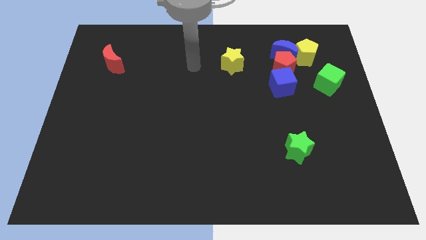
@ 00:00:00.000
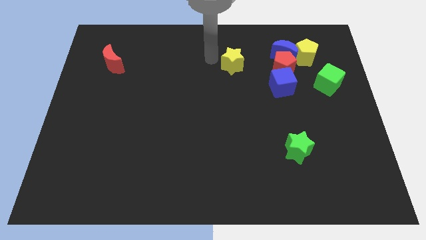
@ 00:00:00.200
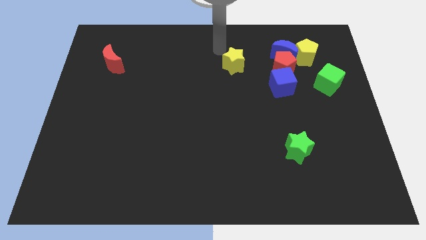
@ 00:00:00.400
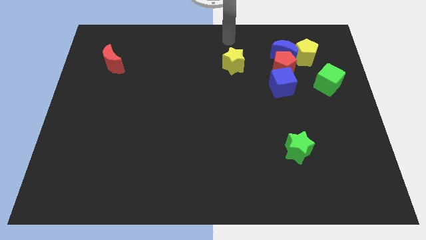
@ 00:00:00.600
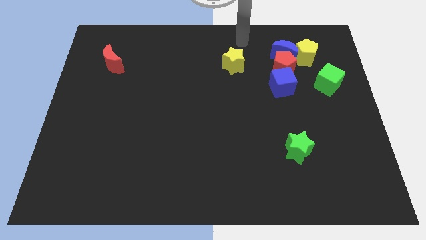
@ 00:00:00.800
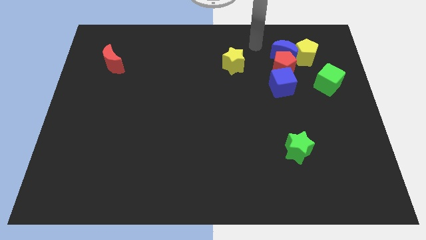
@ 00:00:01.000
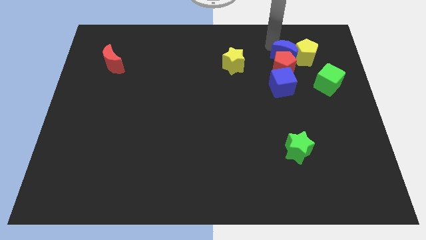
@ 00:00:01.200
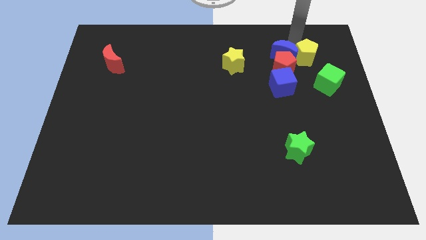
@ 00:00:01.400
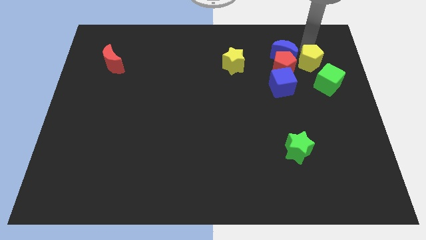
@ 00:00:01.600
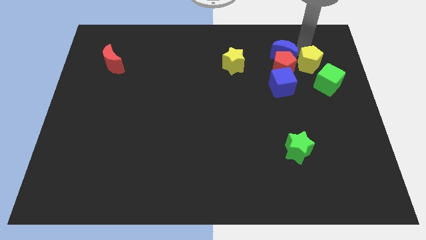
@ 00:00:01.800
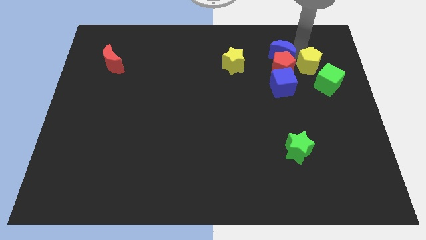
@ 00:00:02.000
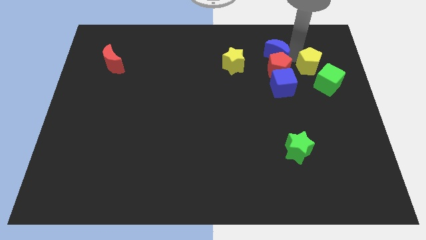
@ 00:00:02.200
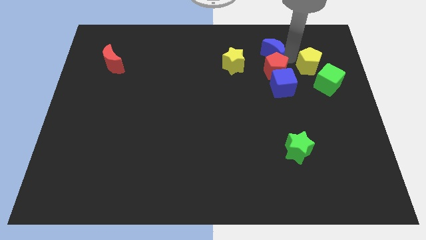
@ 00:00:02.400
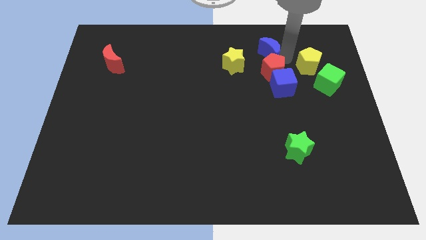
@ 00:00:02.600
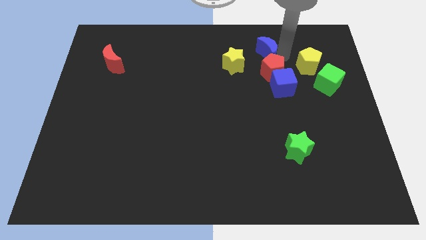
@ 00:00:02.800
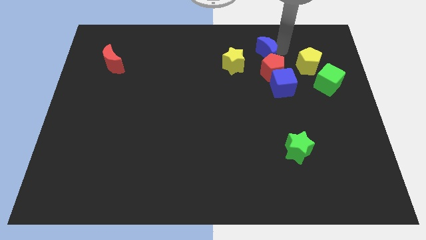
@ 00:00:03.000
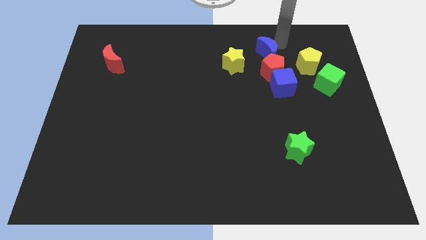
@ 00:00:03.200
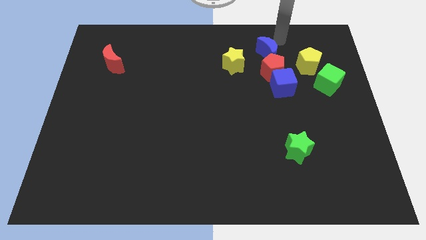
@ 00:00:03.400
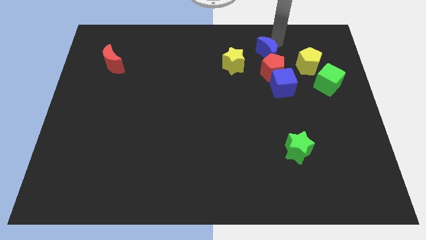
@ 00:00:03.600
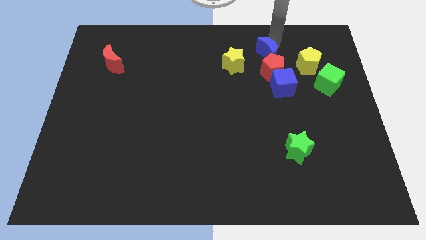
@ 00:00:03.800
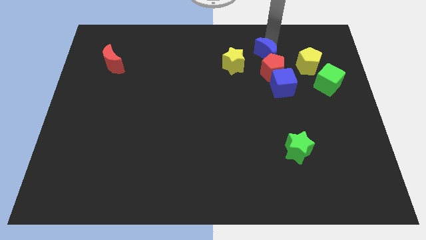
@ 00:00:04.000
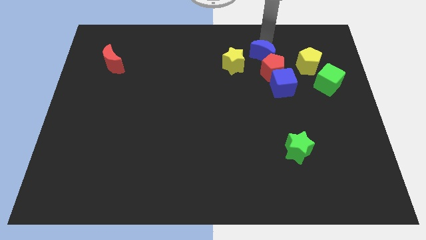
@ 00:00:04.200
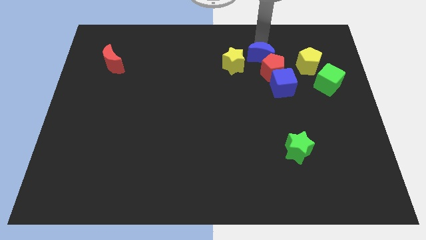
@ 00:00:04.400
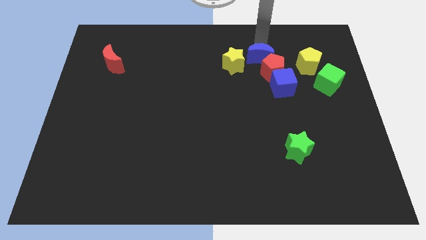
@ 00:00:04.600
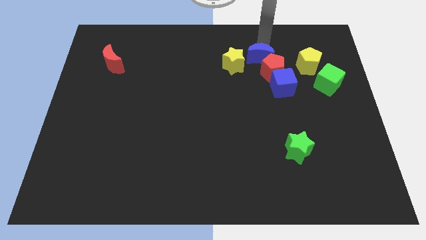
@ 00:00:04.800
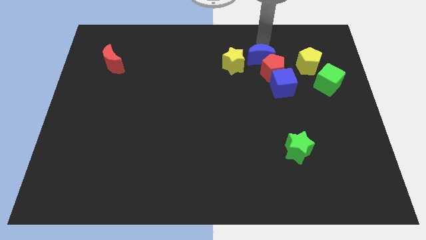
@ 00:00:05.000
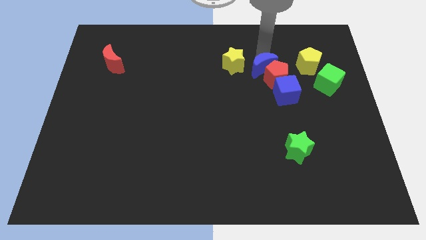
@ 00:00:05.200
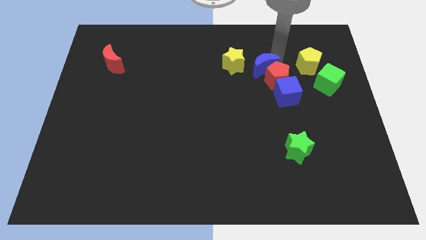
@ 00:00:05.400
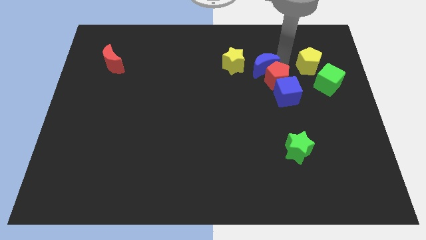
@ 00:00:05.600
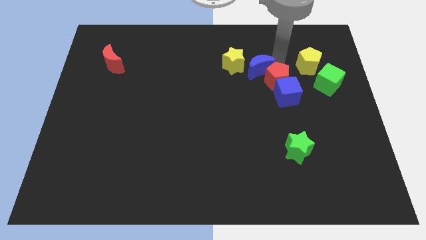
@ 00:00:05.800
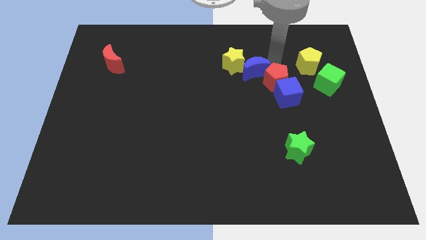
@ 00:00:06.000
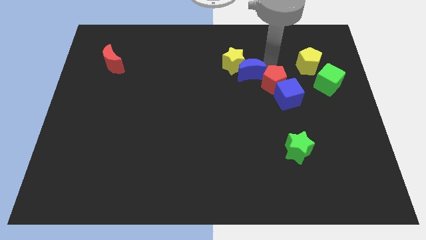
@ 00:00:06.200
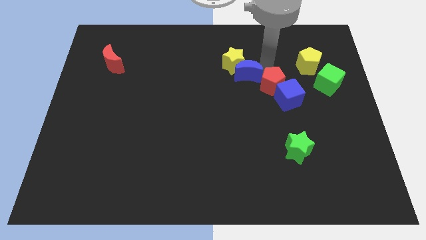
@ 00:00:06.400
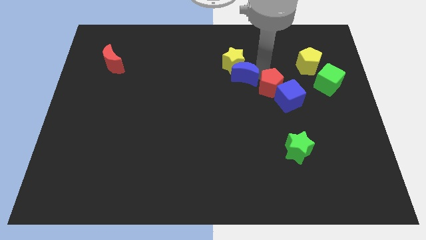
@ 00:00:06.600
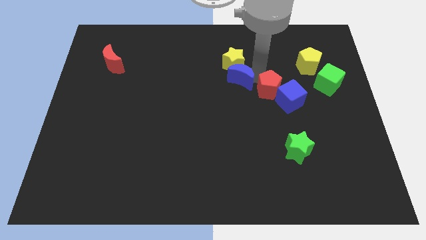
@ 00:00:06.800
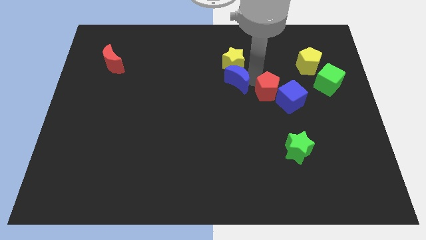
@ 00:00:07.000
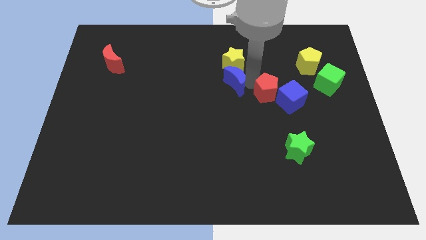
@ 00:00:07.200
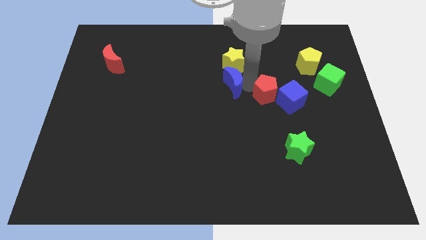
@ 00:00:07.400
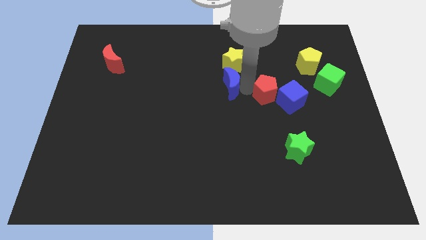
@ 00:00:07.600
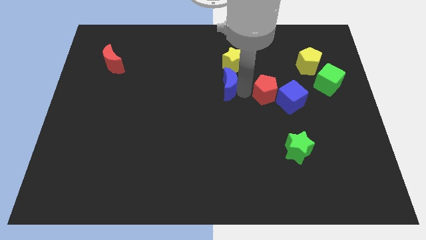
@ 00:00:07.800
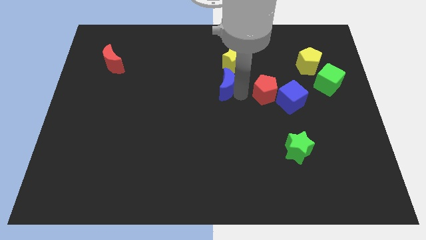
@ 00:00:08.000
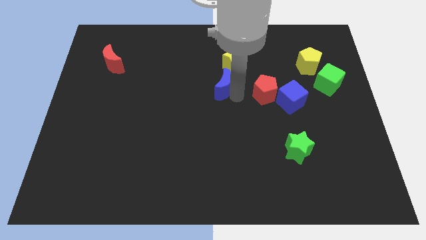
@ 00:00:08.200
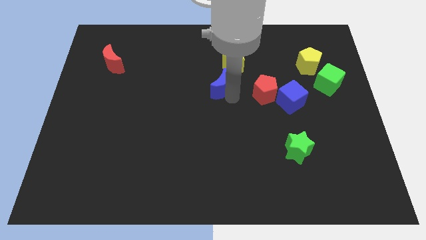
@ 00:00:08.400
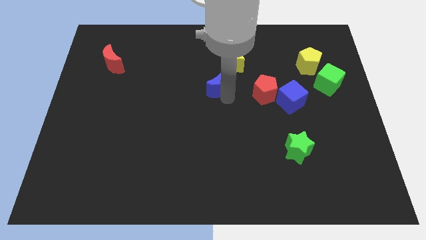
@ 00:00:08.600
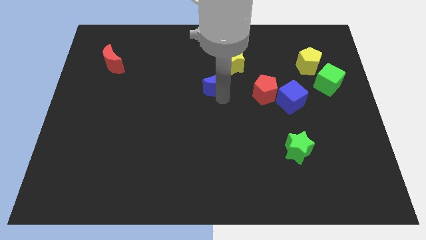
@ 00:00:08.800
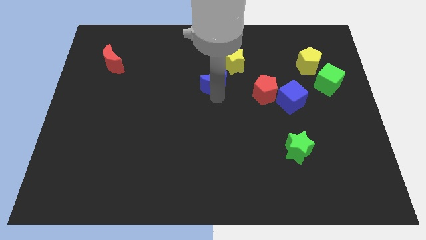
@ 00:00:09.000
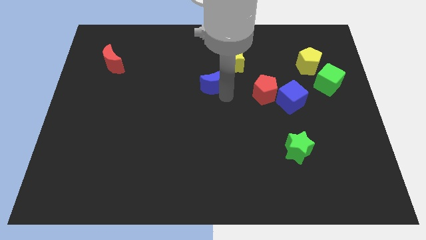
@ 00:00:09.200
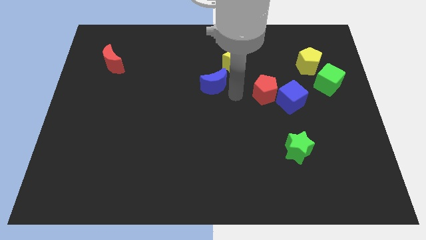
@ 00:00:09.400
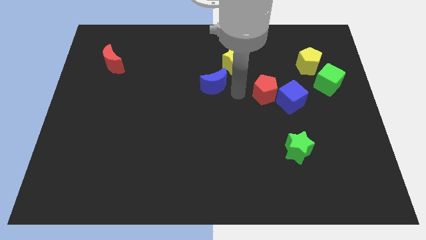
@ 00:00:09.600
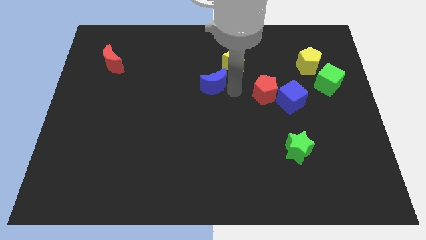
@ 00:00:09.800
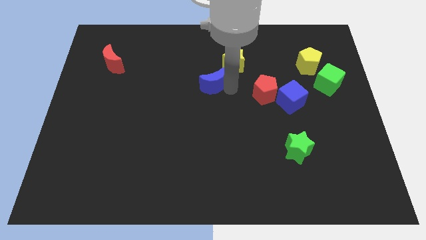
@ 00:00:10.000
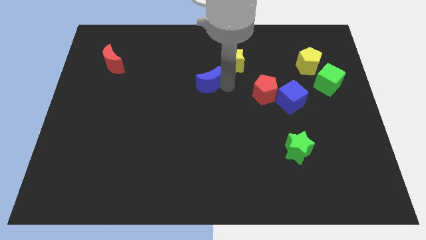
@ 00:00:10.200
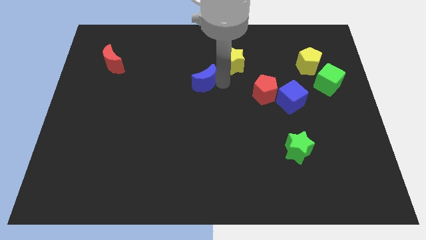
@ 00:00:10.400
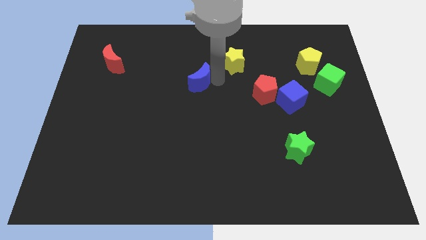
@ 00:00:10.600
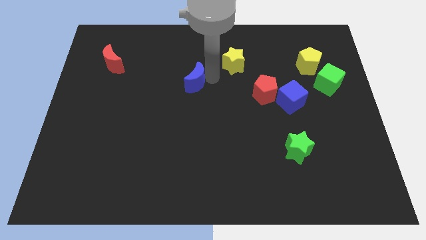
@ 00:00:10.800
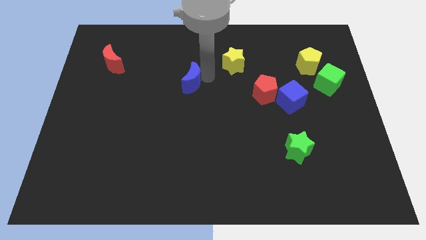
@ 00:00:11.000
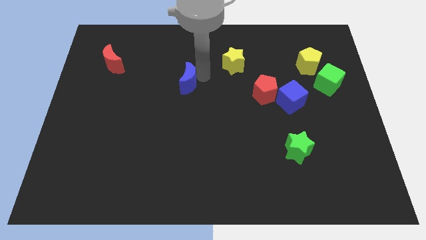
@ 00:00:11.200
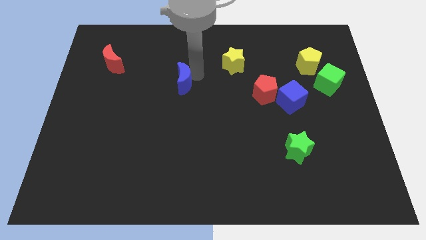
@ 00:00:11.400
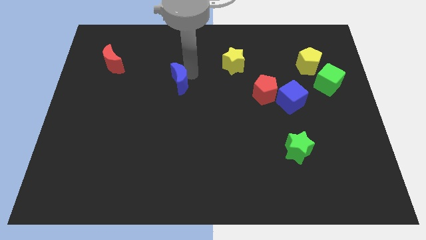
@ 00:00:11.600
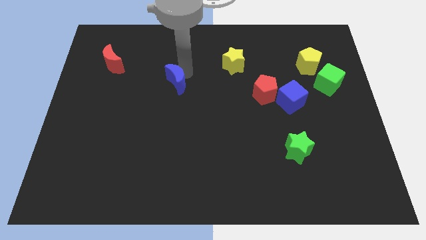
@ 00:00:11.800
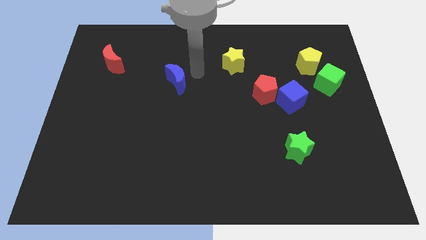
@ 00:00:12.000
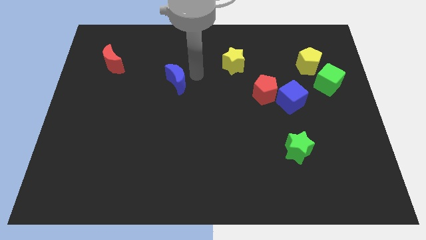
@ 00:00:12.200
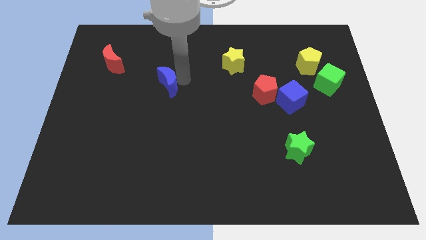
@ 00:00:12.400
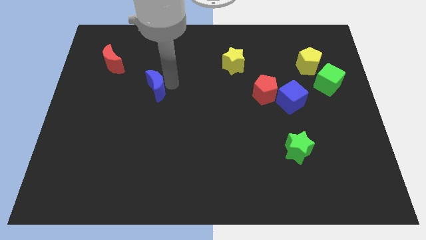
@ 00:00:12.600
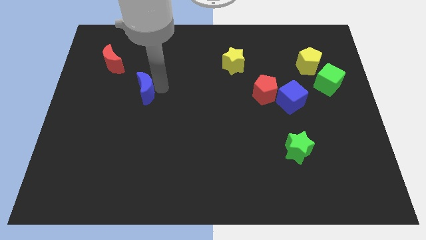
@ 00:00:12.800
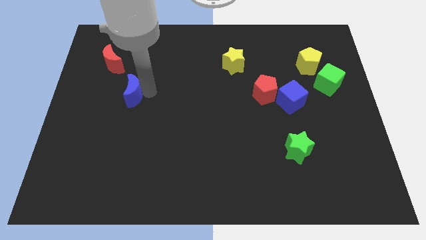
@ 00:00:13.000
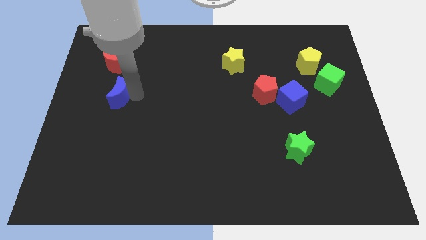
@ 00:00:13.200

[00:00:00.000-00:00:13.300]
slide the blue moon below the red moon

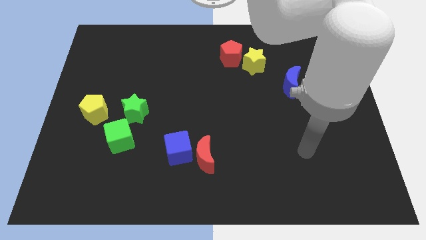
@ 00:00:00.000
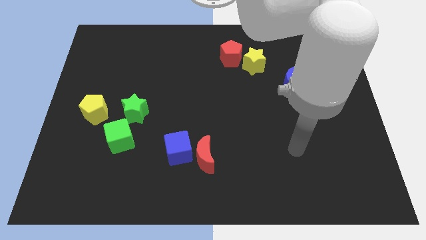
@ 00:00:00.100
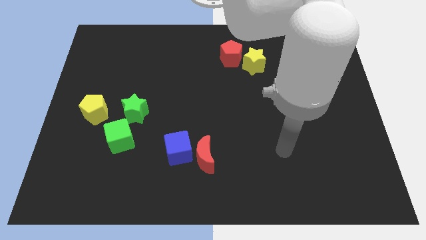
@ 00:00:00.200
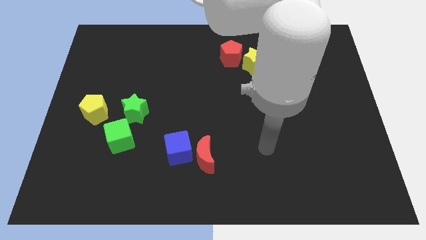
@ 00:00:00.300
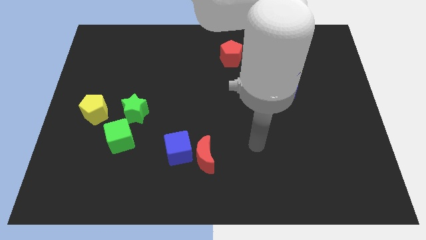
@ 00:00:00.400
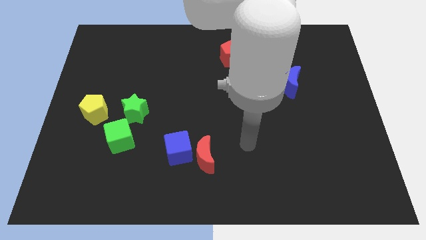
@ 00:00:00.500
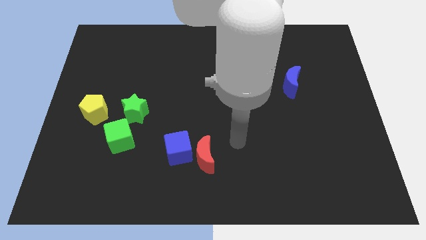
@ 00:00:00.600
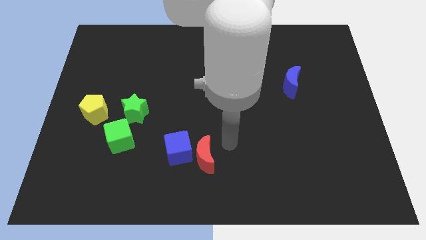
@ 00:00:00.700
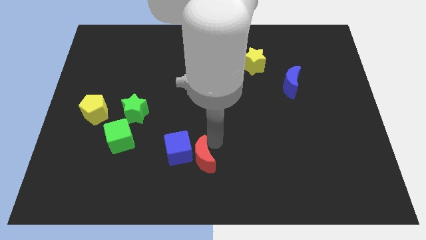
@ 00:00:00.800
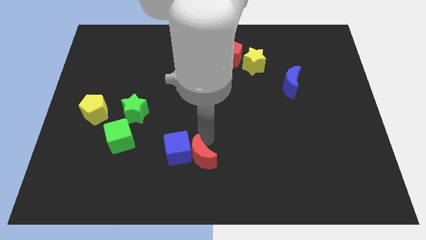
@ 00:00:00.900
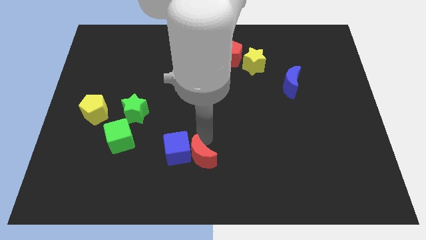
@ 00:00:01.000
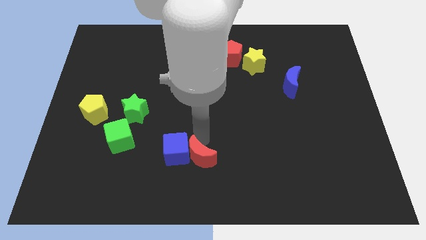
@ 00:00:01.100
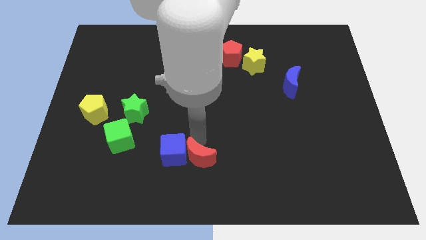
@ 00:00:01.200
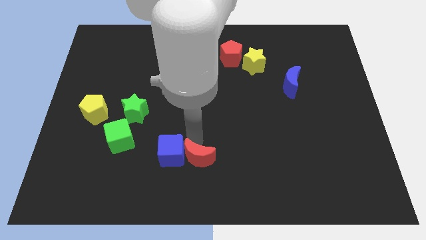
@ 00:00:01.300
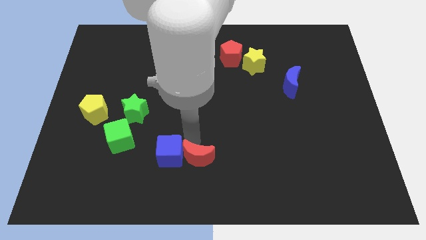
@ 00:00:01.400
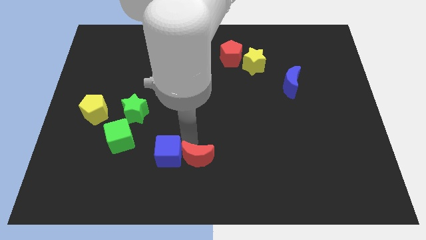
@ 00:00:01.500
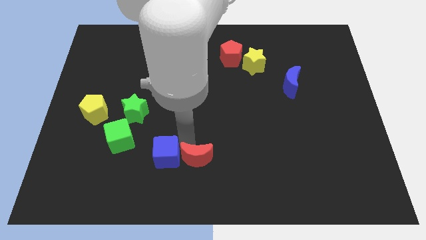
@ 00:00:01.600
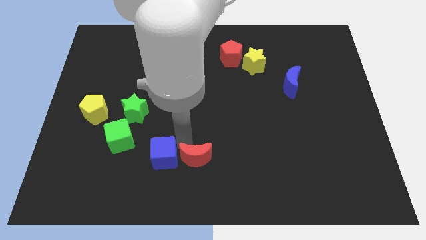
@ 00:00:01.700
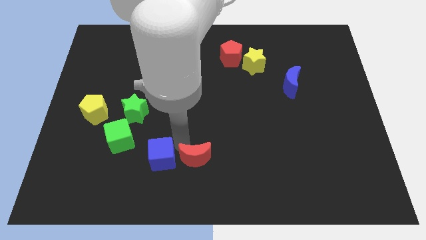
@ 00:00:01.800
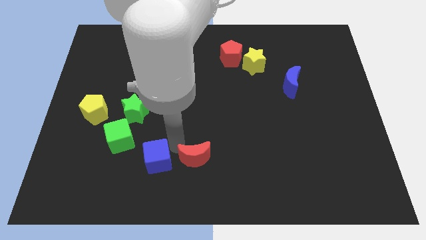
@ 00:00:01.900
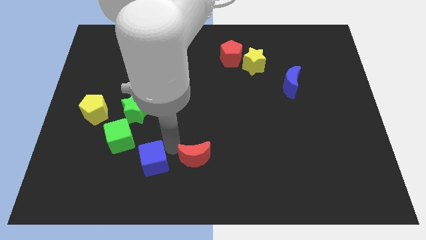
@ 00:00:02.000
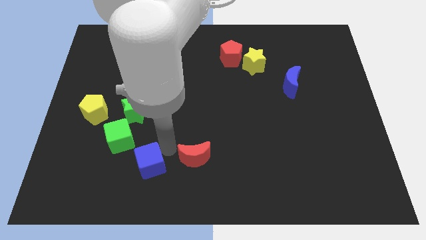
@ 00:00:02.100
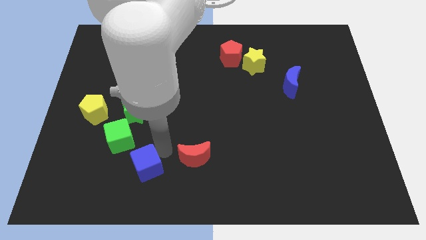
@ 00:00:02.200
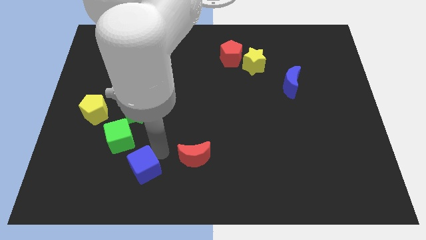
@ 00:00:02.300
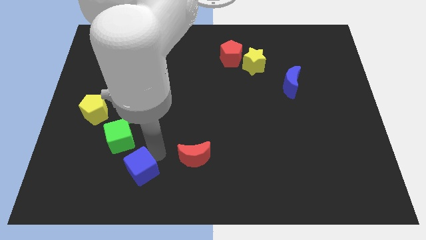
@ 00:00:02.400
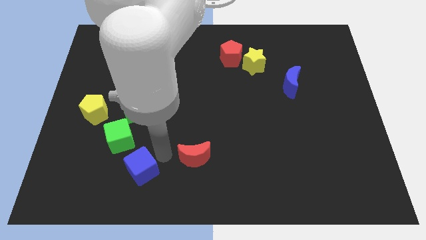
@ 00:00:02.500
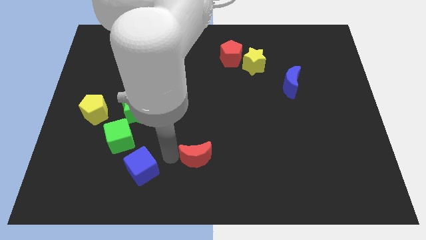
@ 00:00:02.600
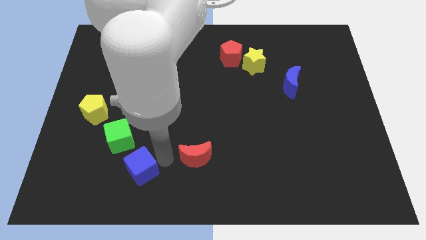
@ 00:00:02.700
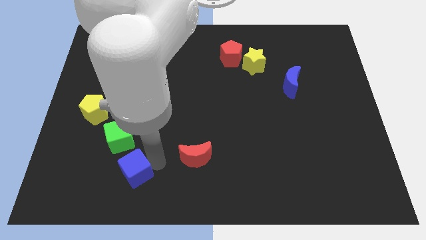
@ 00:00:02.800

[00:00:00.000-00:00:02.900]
push the blue cube to the bottom side of the green cube
